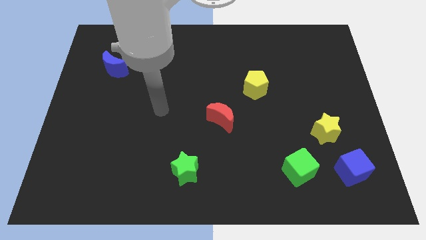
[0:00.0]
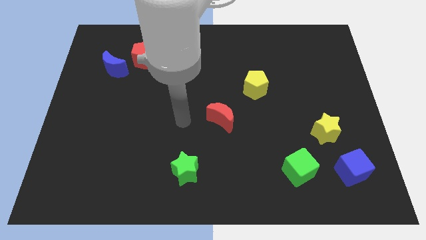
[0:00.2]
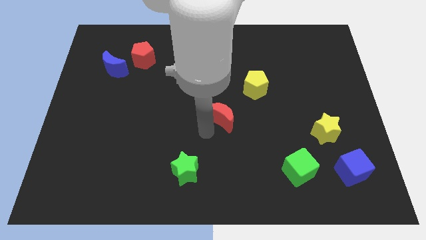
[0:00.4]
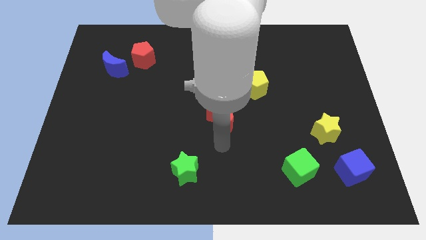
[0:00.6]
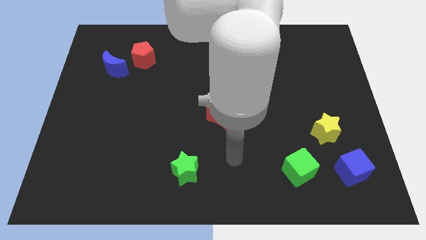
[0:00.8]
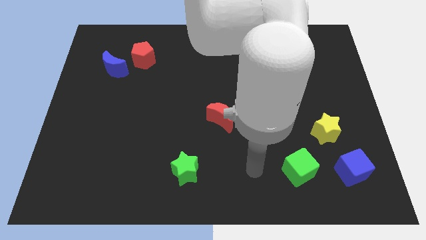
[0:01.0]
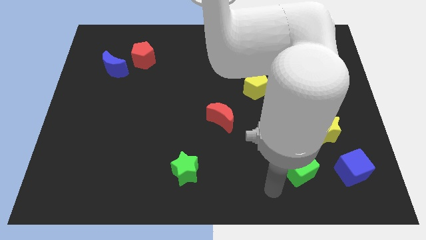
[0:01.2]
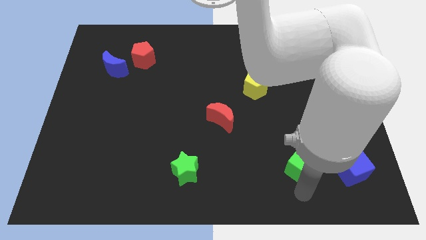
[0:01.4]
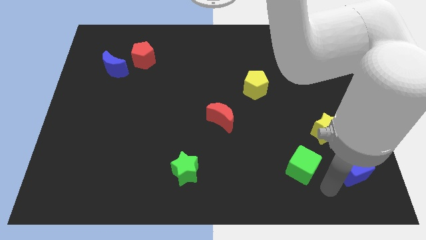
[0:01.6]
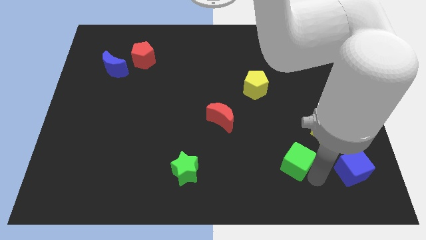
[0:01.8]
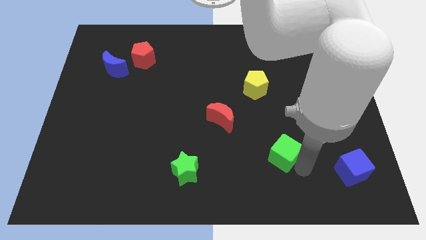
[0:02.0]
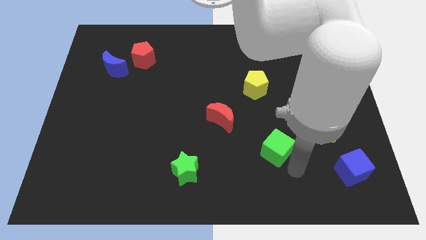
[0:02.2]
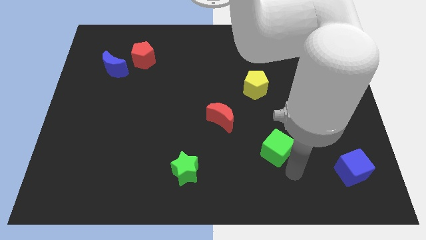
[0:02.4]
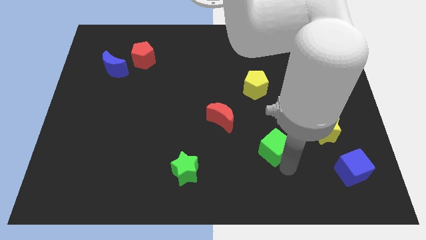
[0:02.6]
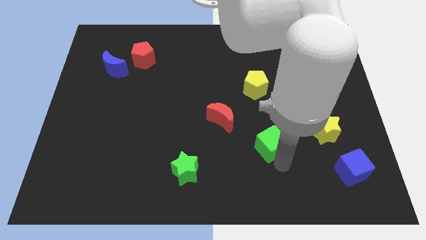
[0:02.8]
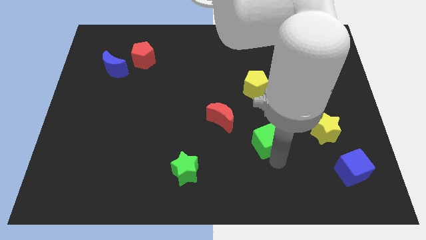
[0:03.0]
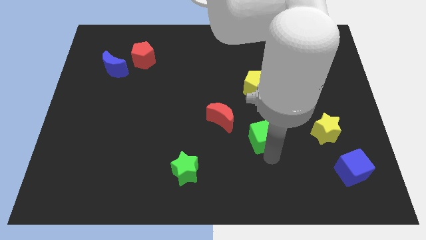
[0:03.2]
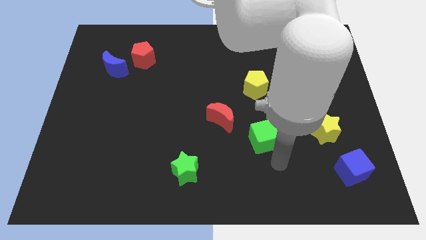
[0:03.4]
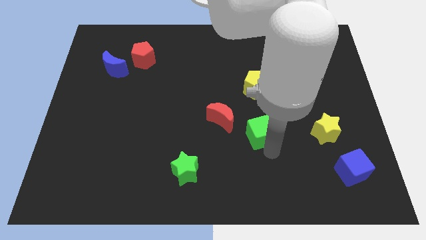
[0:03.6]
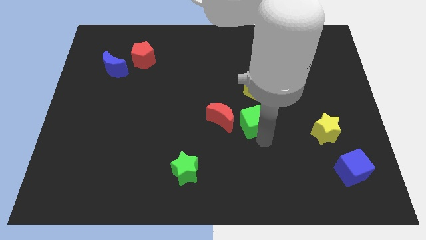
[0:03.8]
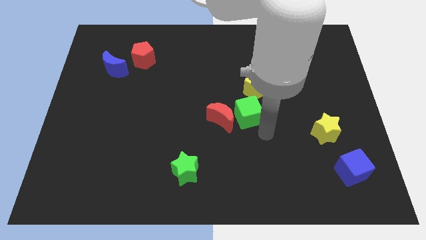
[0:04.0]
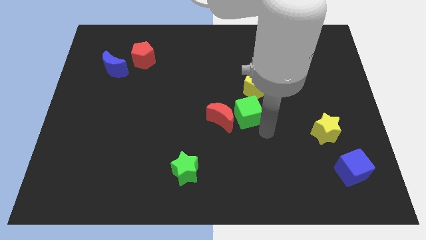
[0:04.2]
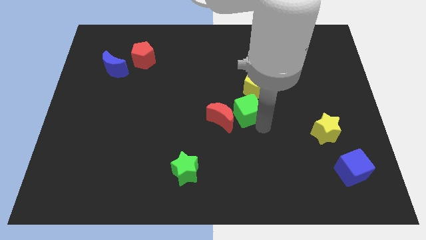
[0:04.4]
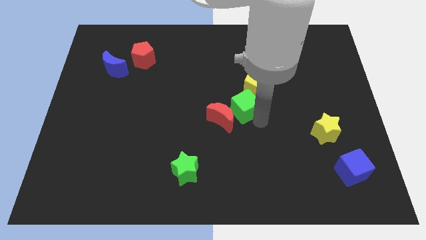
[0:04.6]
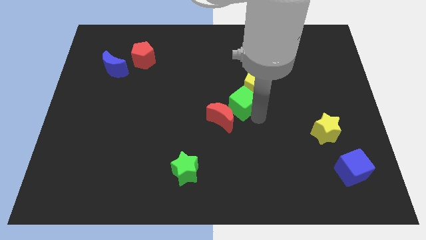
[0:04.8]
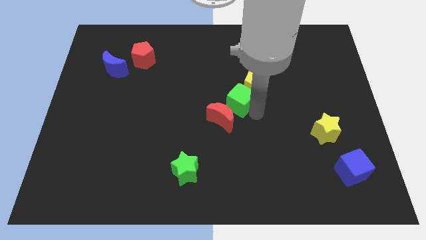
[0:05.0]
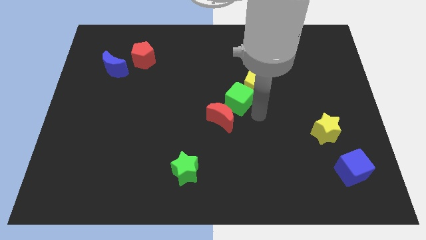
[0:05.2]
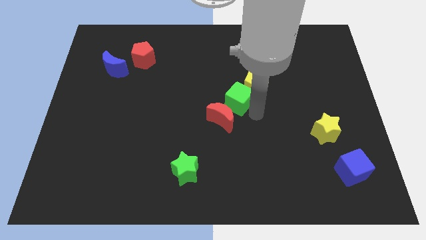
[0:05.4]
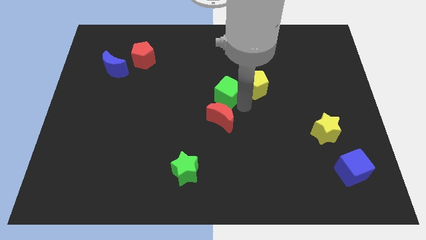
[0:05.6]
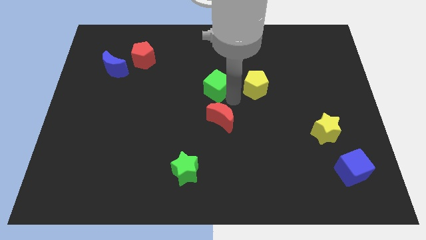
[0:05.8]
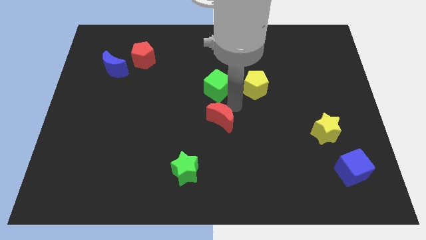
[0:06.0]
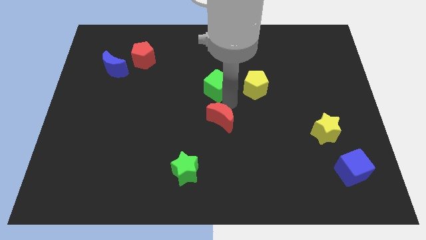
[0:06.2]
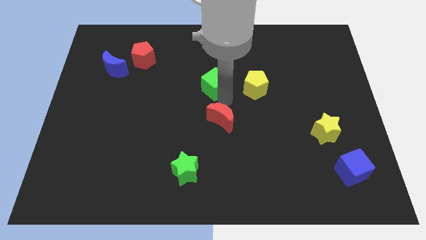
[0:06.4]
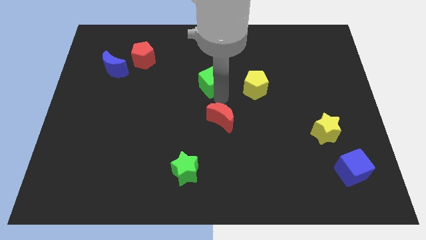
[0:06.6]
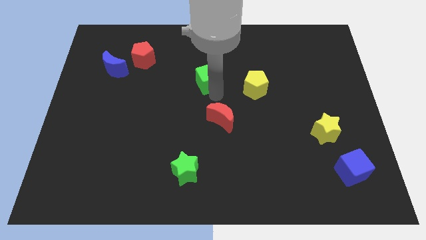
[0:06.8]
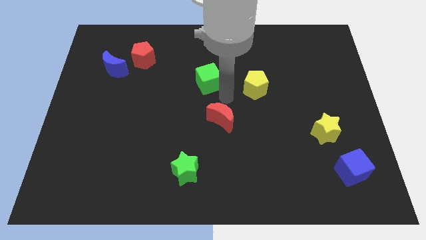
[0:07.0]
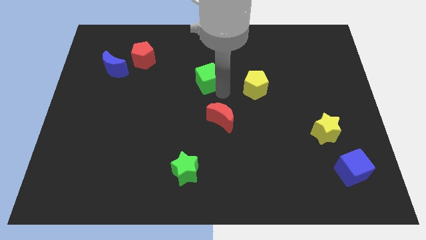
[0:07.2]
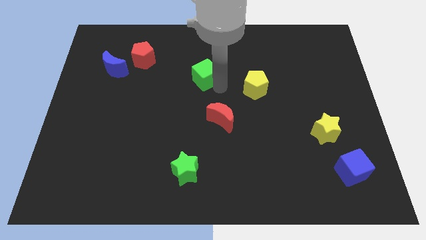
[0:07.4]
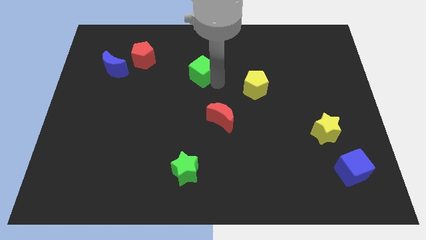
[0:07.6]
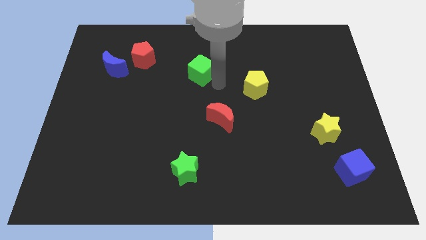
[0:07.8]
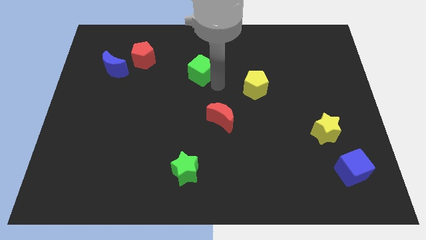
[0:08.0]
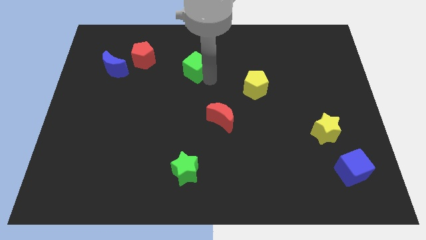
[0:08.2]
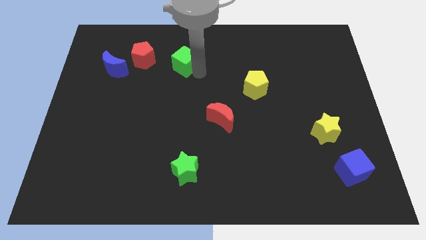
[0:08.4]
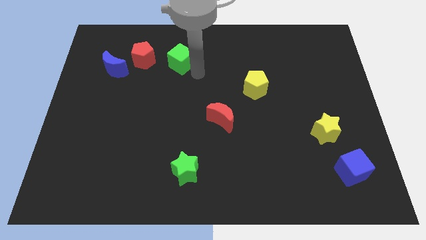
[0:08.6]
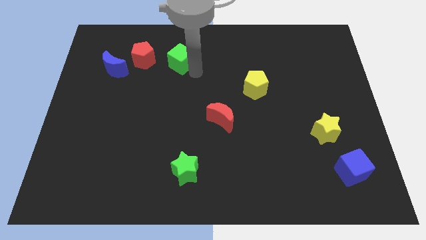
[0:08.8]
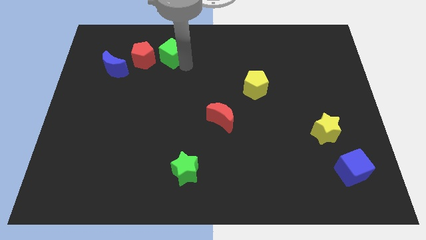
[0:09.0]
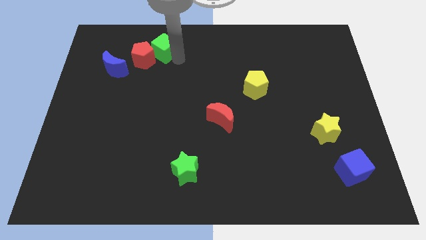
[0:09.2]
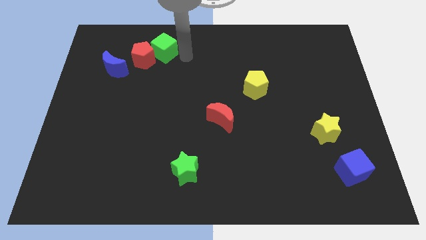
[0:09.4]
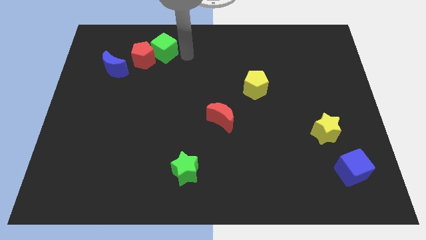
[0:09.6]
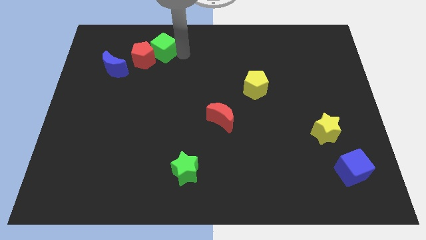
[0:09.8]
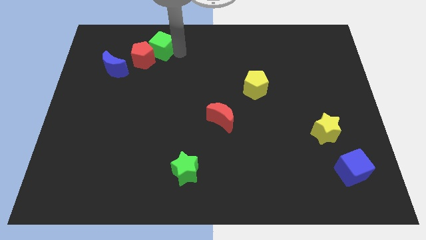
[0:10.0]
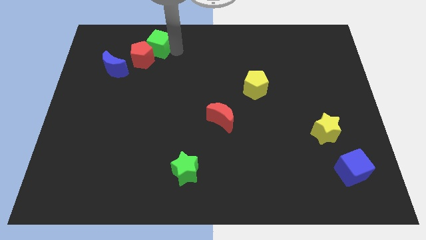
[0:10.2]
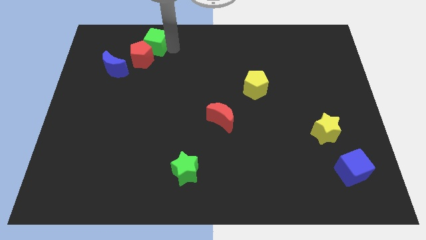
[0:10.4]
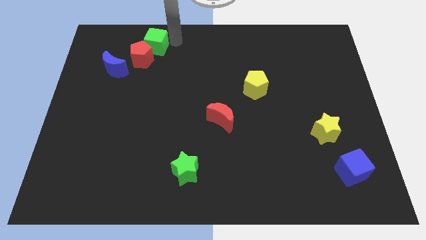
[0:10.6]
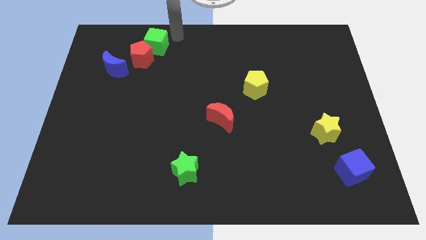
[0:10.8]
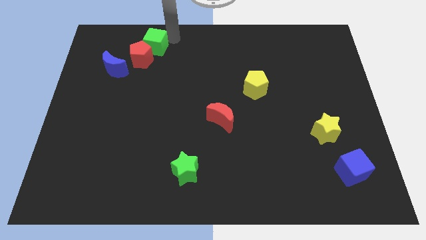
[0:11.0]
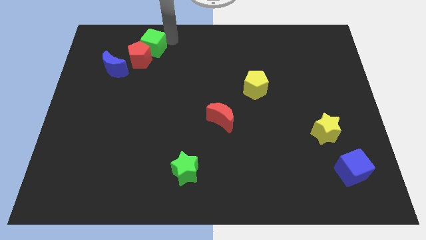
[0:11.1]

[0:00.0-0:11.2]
push the green cube diagonally up and to the right of the blue moon

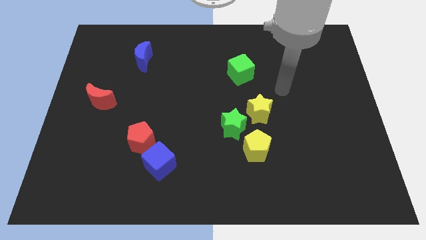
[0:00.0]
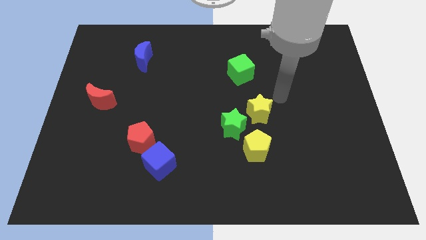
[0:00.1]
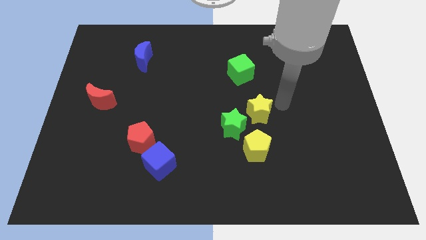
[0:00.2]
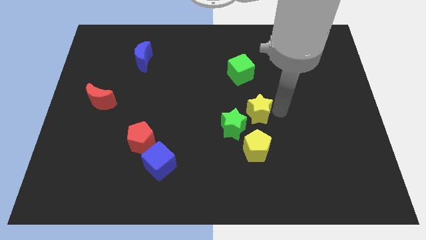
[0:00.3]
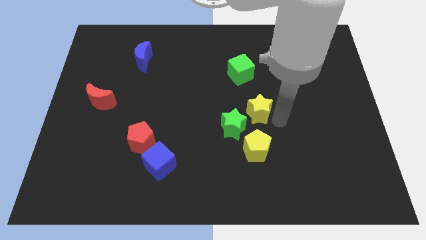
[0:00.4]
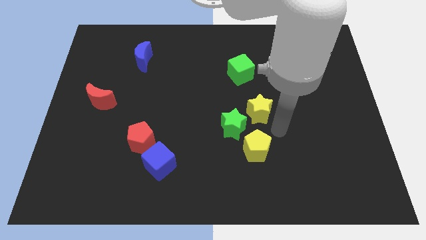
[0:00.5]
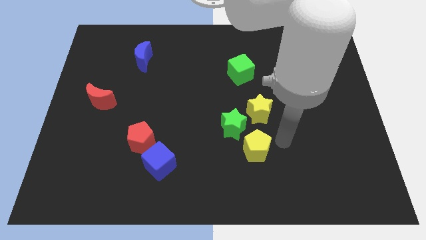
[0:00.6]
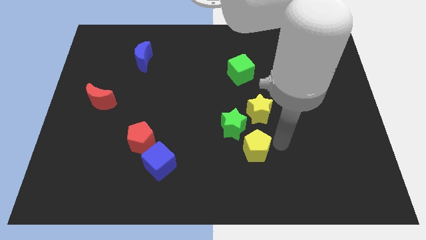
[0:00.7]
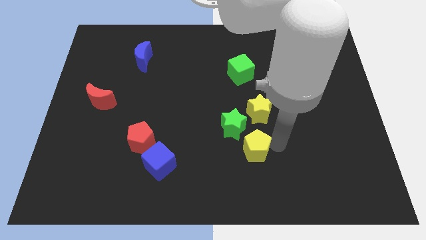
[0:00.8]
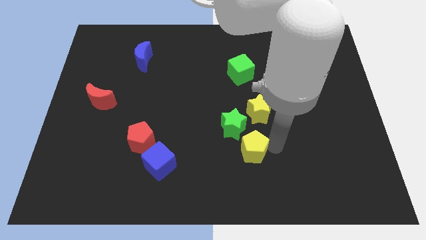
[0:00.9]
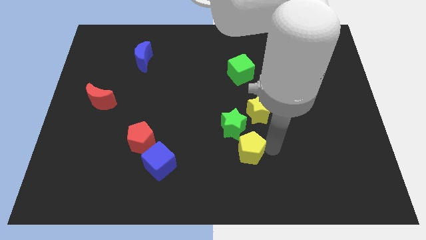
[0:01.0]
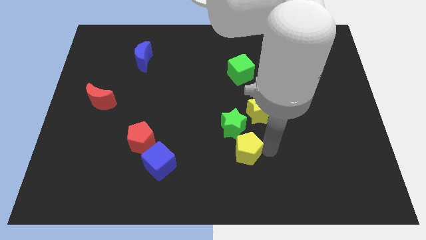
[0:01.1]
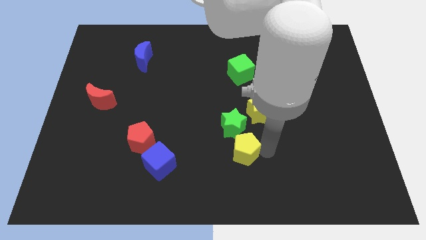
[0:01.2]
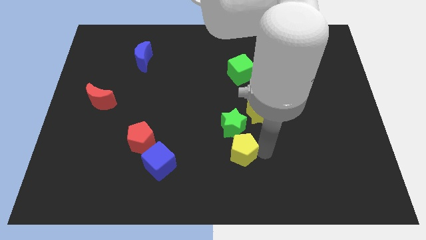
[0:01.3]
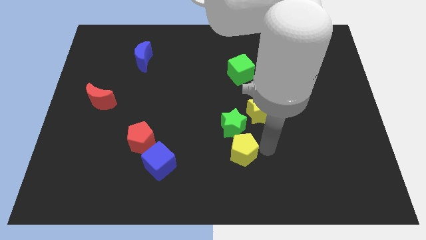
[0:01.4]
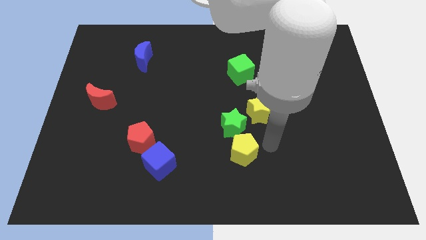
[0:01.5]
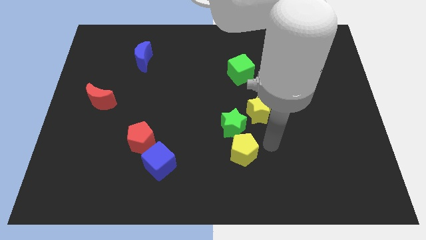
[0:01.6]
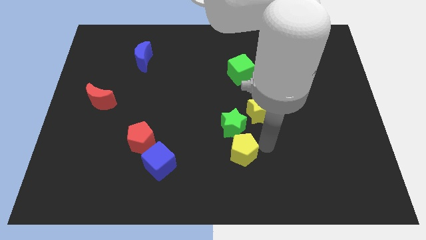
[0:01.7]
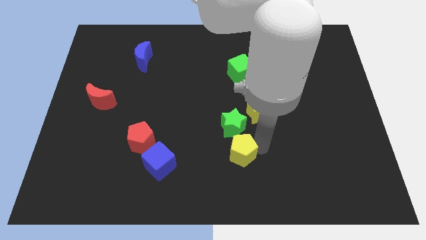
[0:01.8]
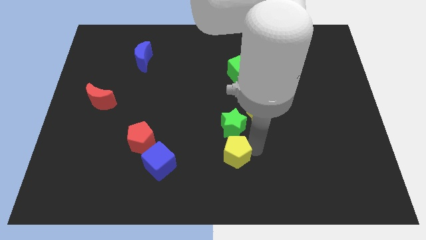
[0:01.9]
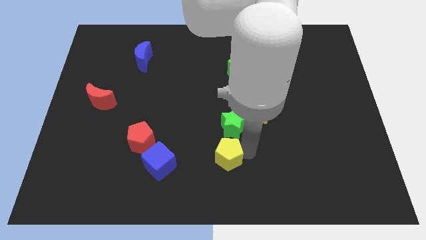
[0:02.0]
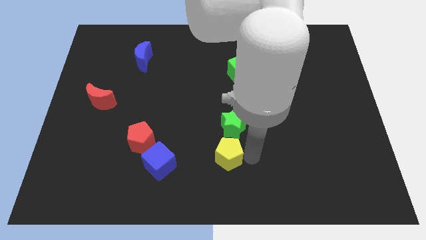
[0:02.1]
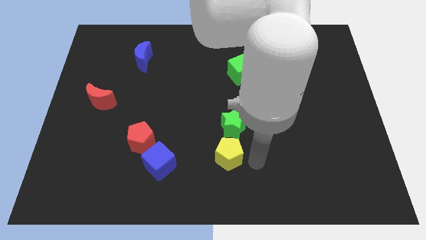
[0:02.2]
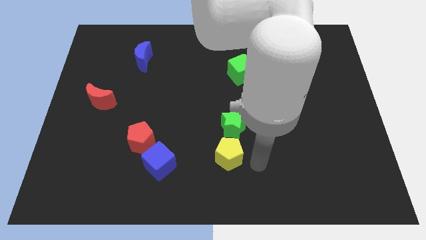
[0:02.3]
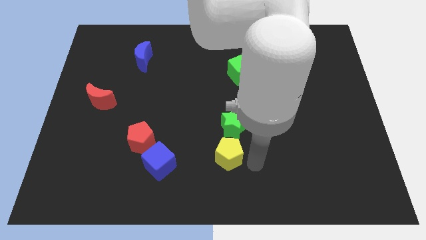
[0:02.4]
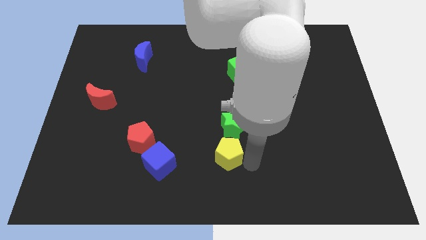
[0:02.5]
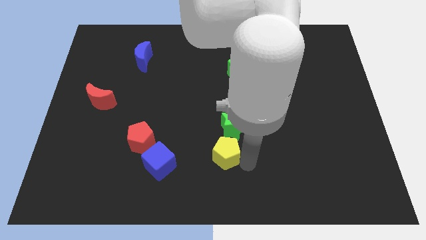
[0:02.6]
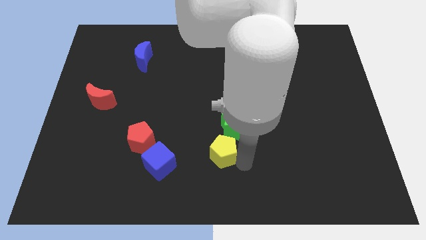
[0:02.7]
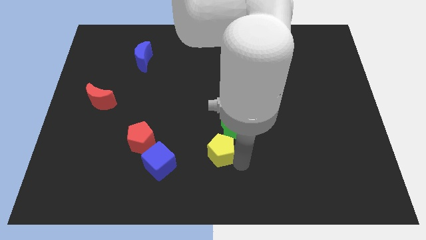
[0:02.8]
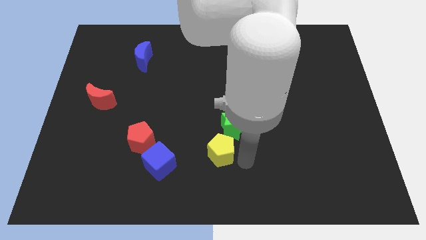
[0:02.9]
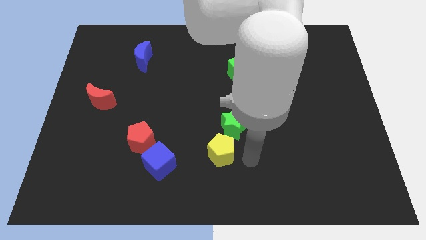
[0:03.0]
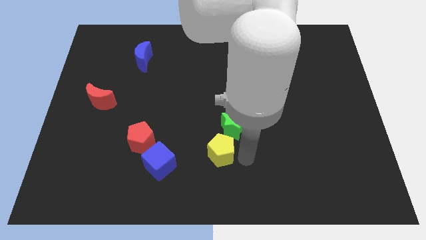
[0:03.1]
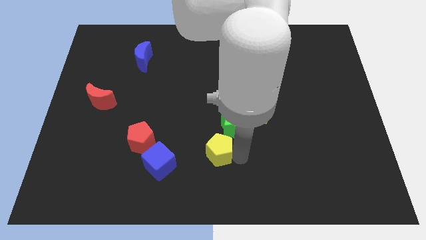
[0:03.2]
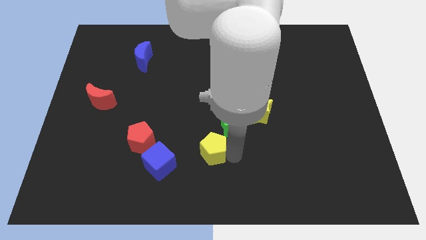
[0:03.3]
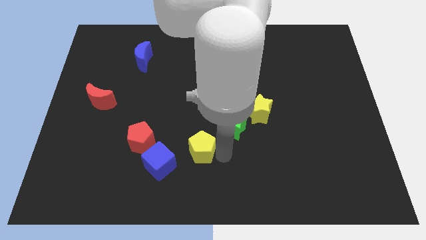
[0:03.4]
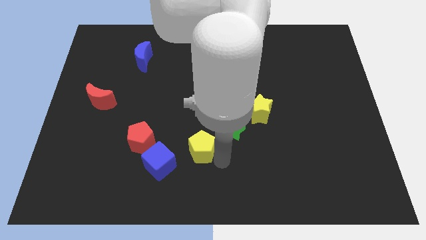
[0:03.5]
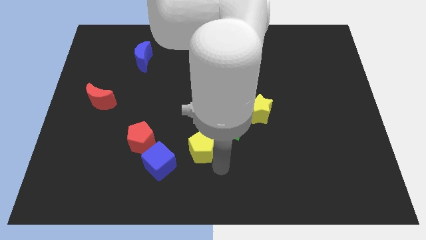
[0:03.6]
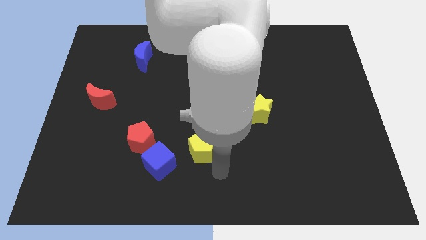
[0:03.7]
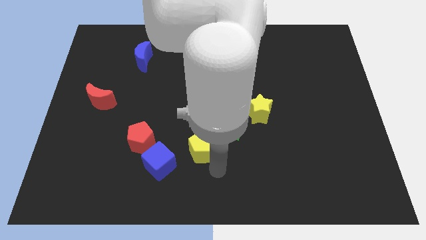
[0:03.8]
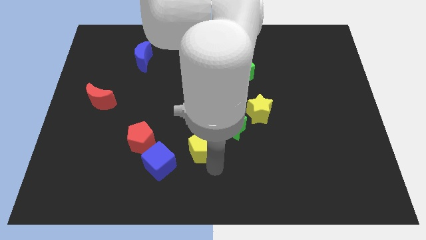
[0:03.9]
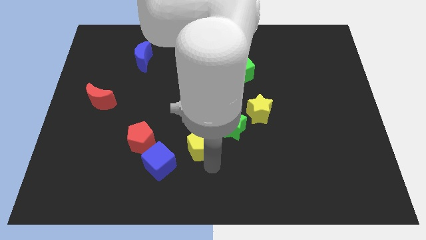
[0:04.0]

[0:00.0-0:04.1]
put the yellow pentagon just left of the green star
